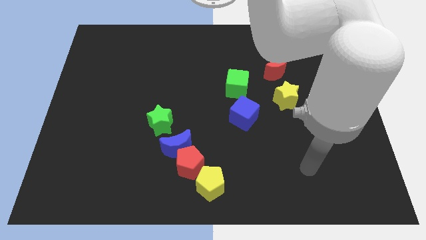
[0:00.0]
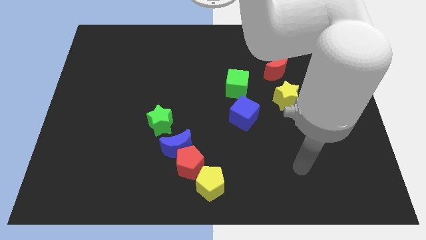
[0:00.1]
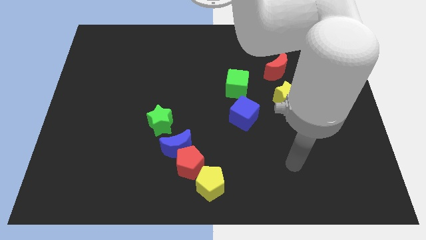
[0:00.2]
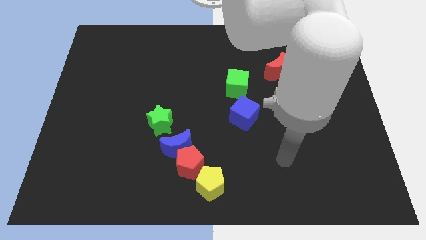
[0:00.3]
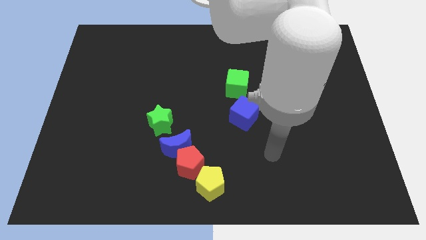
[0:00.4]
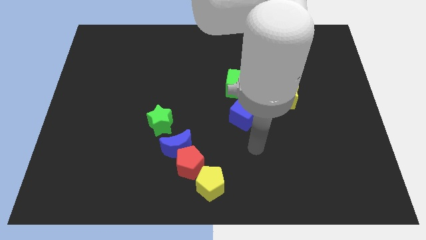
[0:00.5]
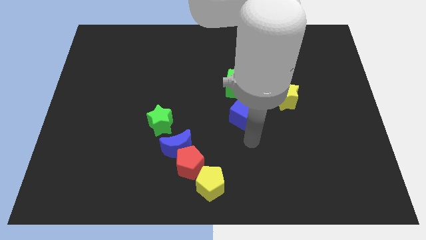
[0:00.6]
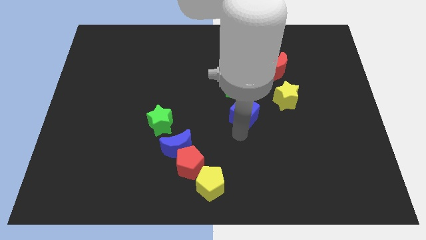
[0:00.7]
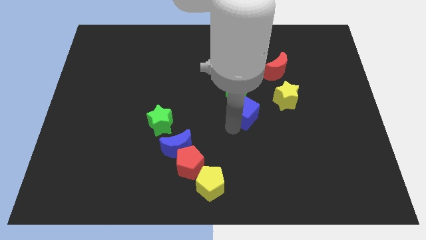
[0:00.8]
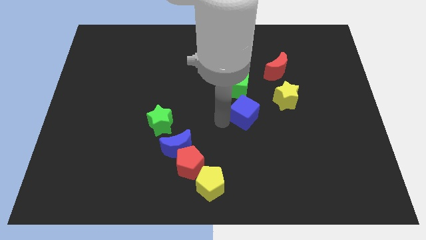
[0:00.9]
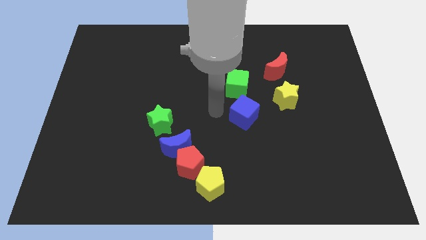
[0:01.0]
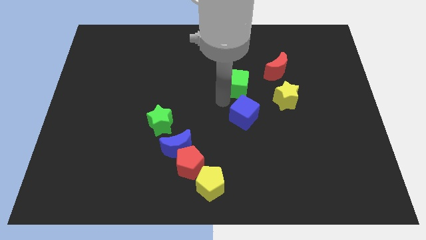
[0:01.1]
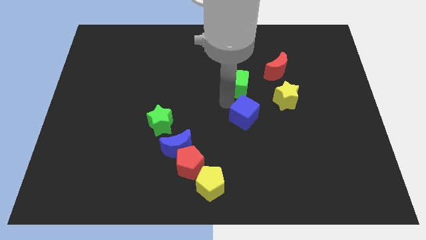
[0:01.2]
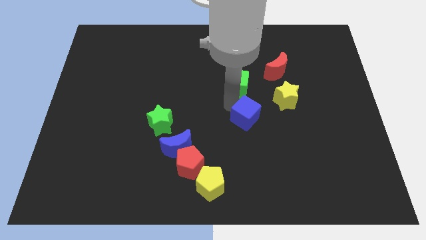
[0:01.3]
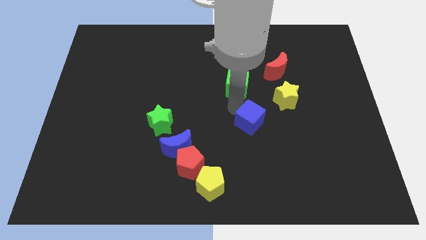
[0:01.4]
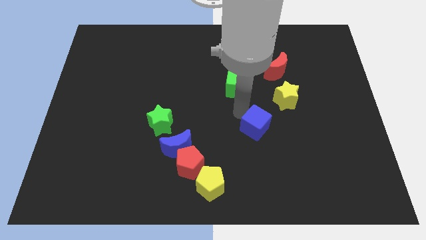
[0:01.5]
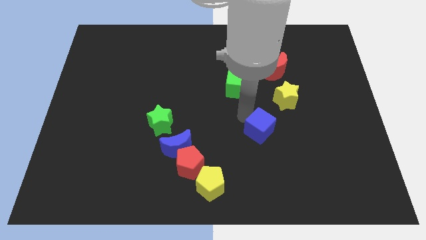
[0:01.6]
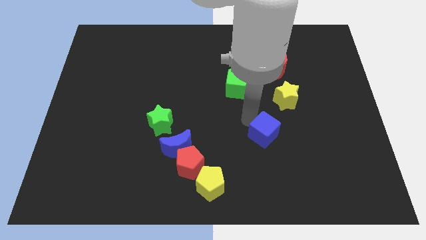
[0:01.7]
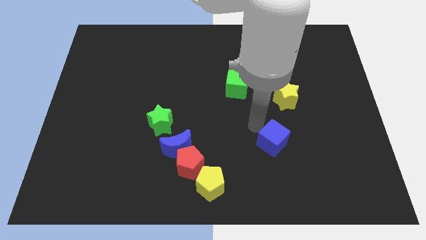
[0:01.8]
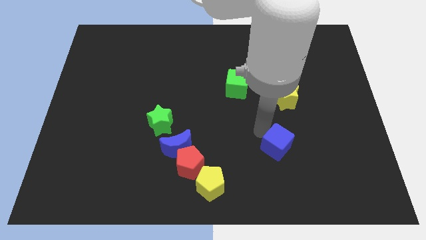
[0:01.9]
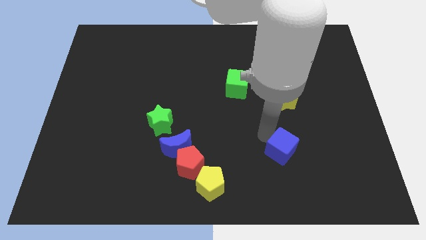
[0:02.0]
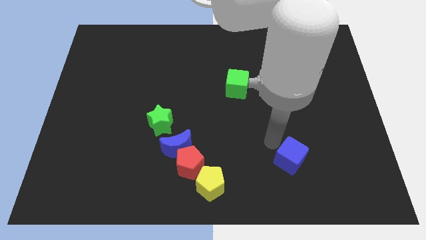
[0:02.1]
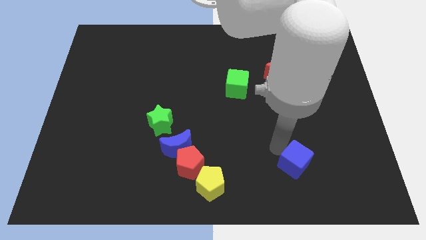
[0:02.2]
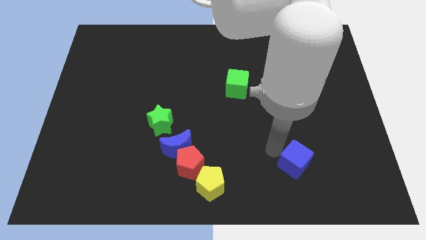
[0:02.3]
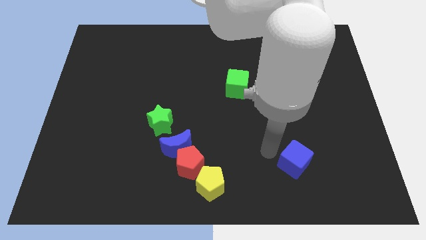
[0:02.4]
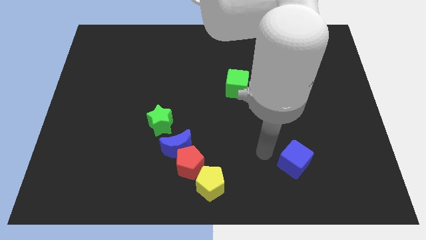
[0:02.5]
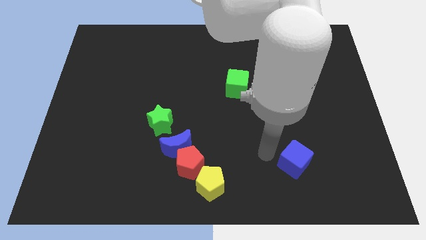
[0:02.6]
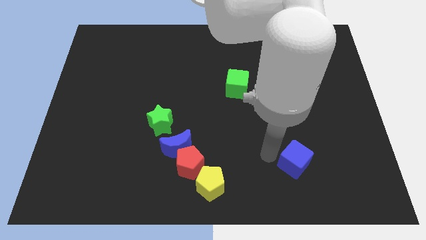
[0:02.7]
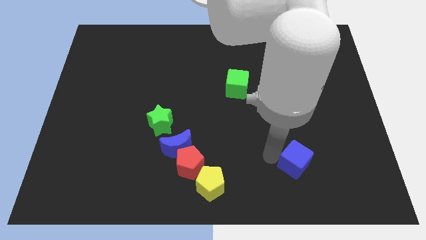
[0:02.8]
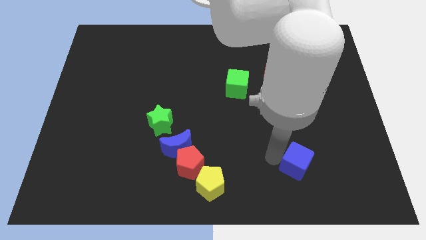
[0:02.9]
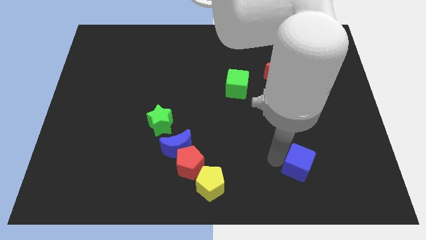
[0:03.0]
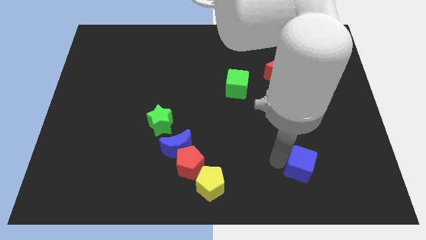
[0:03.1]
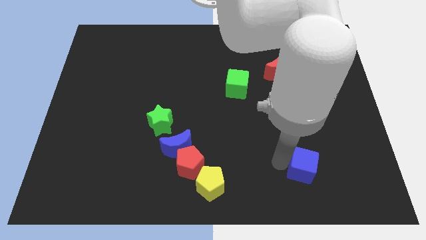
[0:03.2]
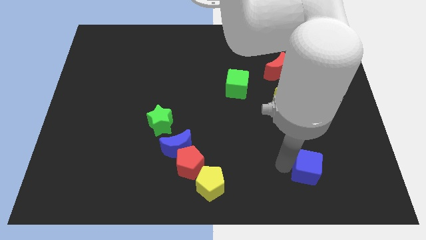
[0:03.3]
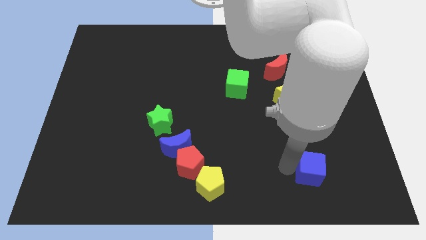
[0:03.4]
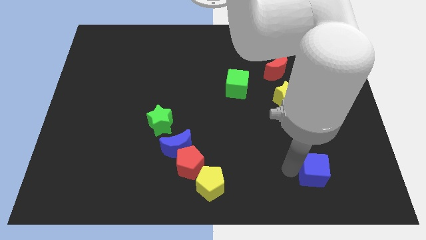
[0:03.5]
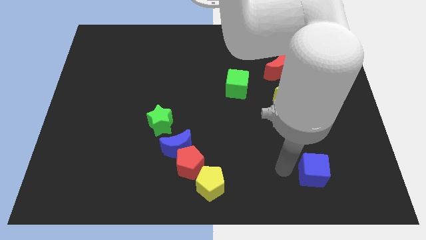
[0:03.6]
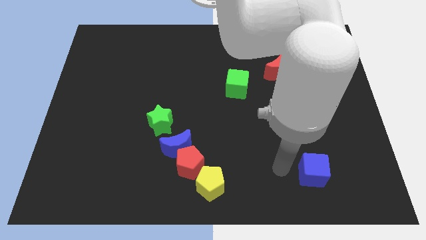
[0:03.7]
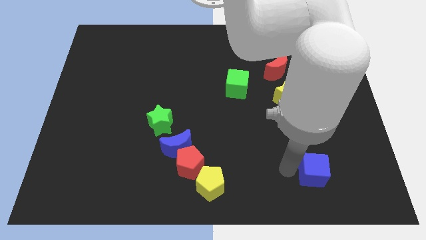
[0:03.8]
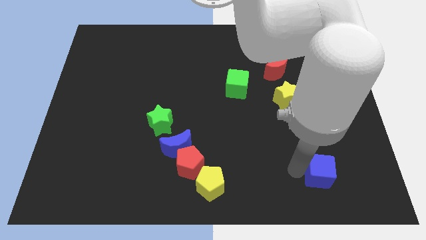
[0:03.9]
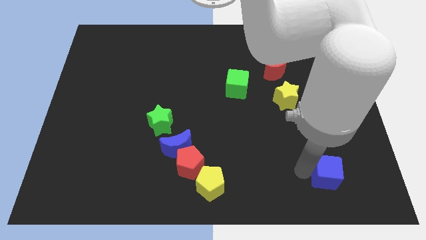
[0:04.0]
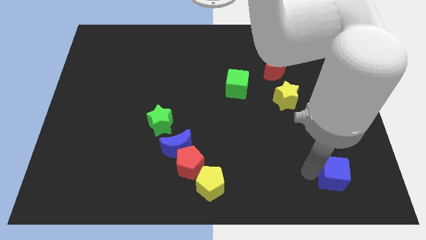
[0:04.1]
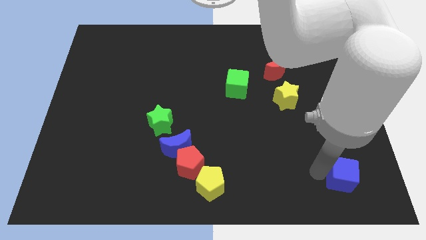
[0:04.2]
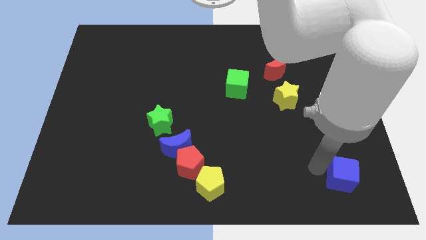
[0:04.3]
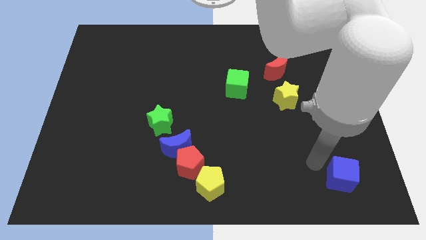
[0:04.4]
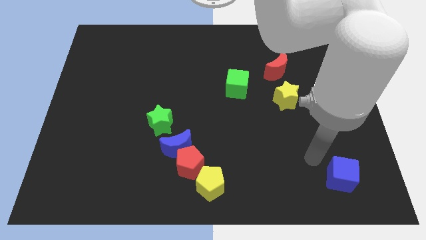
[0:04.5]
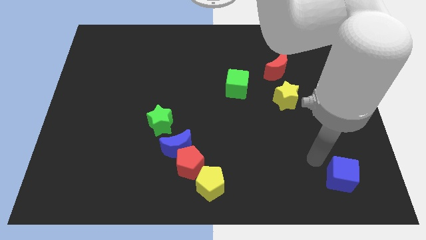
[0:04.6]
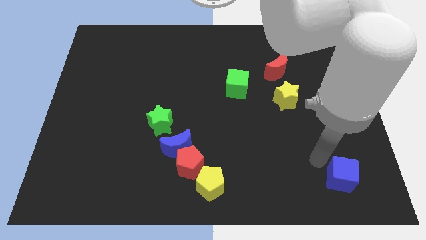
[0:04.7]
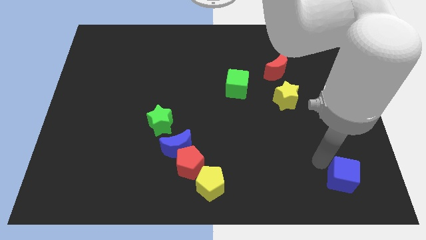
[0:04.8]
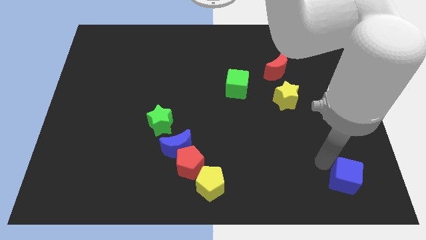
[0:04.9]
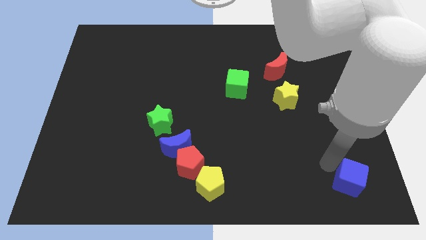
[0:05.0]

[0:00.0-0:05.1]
move the blue cube to the bottom right

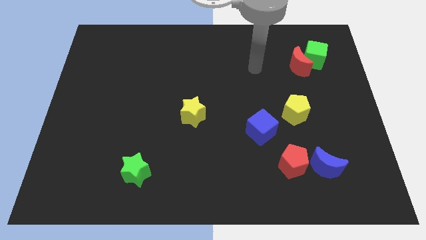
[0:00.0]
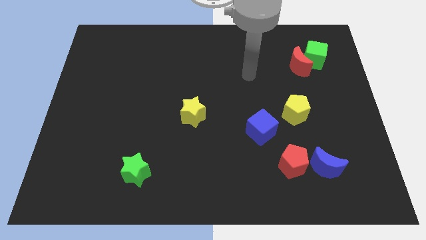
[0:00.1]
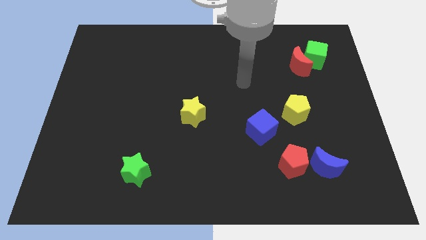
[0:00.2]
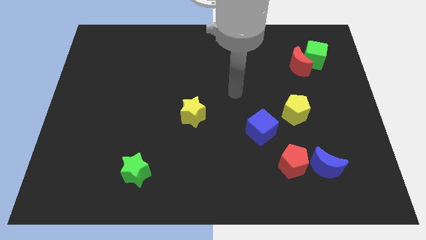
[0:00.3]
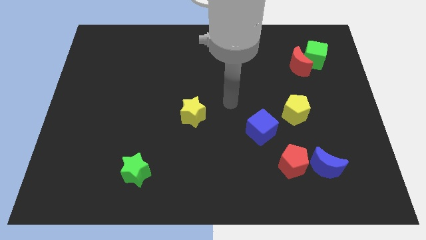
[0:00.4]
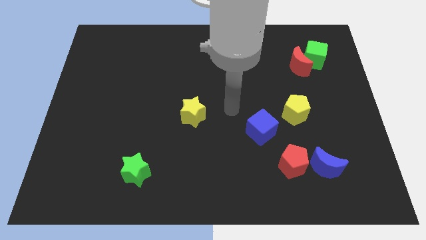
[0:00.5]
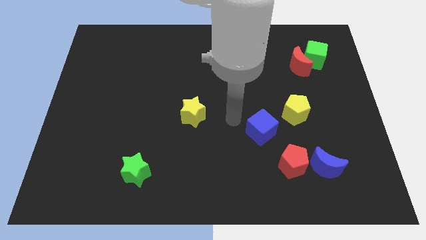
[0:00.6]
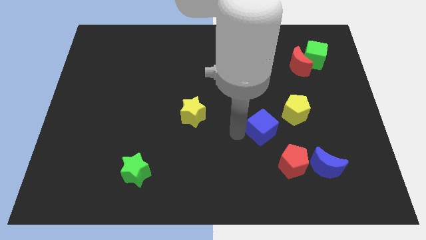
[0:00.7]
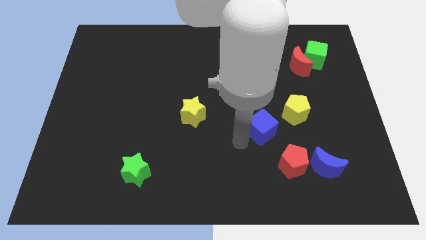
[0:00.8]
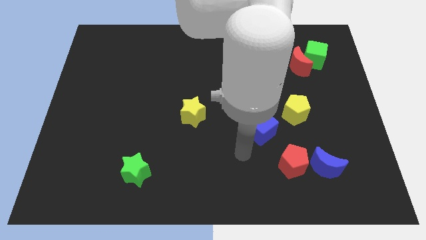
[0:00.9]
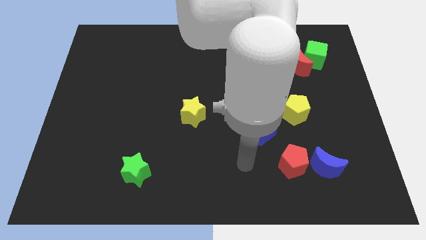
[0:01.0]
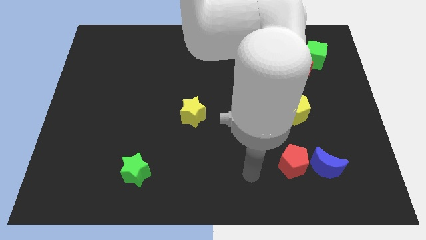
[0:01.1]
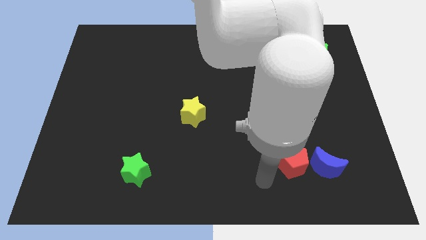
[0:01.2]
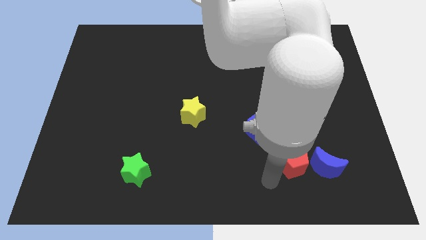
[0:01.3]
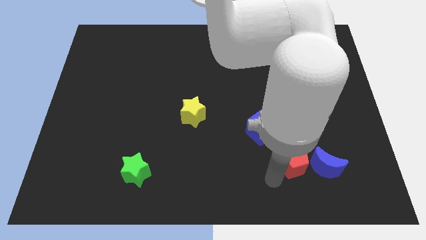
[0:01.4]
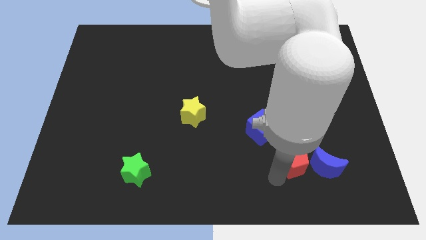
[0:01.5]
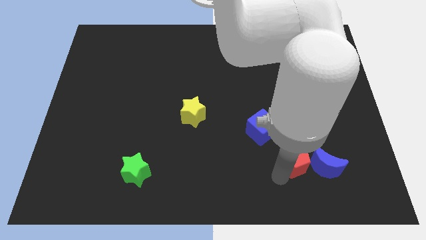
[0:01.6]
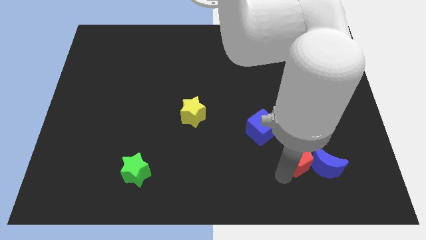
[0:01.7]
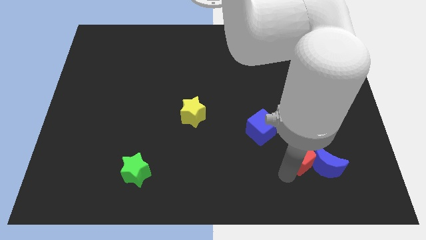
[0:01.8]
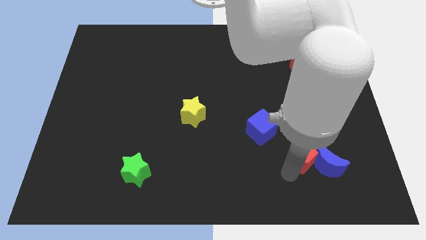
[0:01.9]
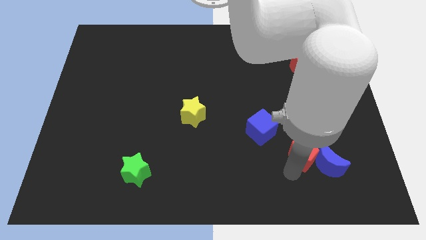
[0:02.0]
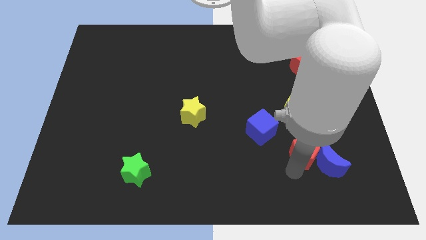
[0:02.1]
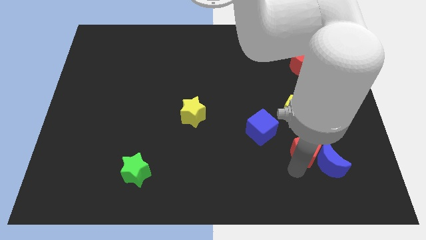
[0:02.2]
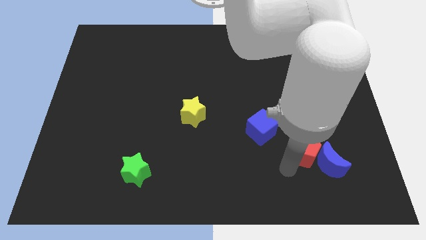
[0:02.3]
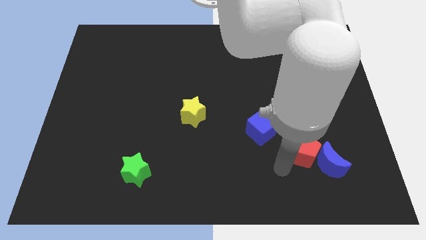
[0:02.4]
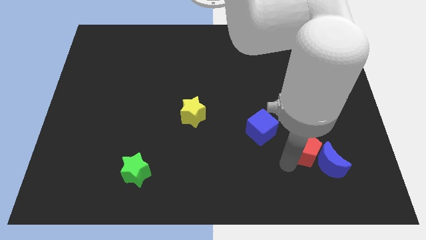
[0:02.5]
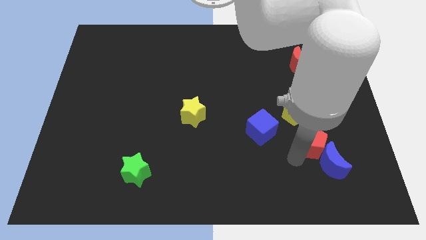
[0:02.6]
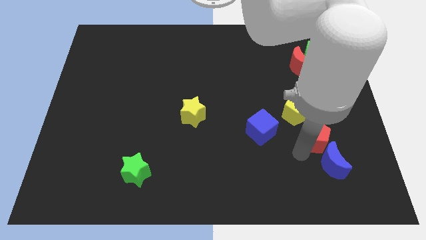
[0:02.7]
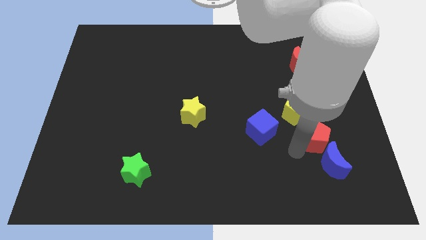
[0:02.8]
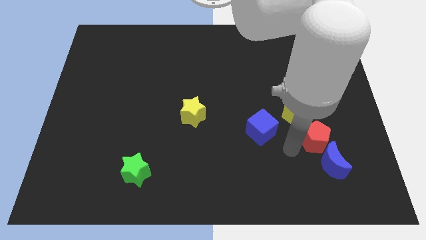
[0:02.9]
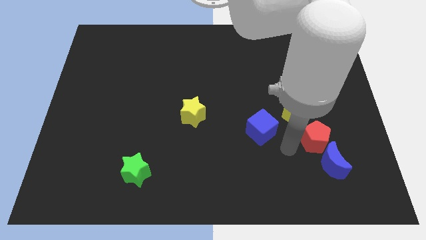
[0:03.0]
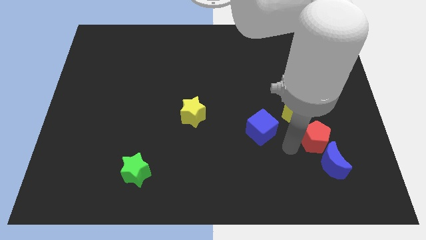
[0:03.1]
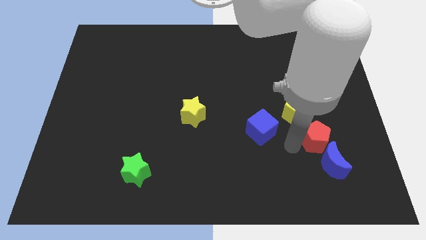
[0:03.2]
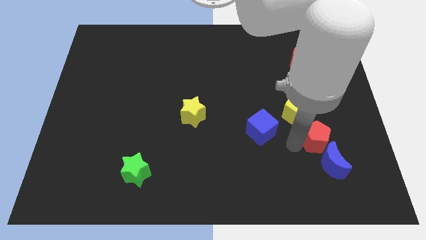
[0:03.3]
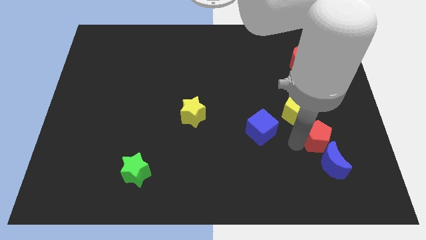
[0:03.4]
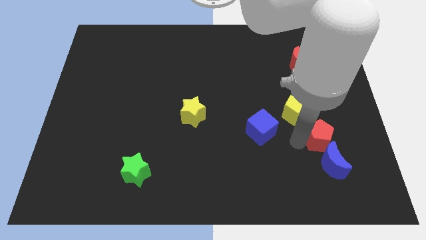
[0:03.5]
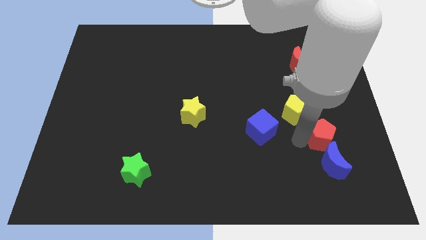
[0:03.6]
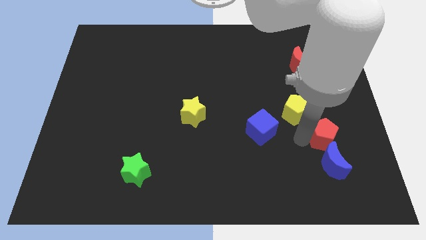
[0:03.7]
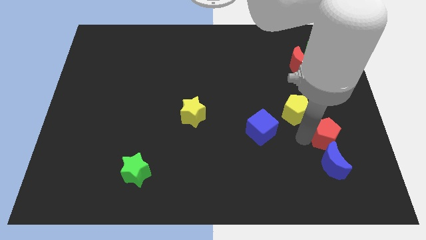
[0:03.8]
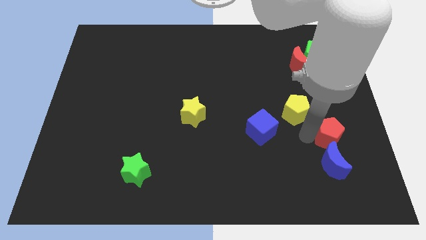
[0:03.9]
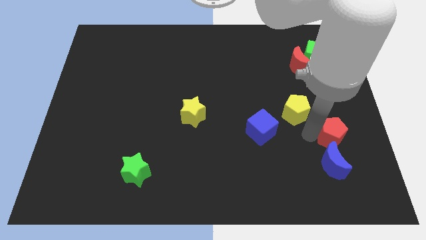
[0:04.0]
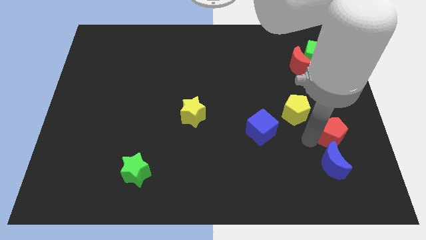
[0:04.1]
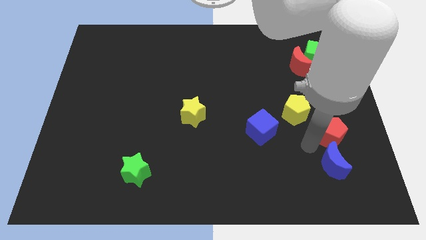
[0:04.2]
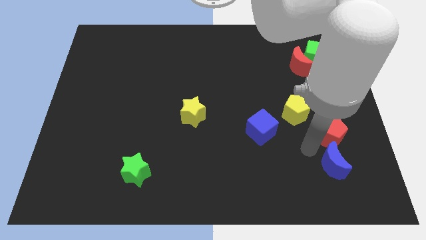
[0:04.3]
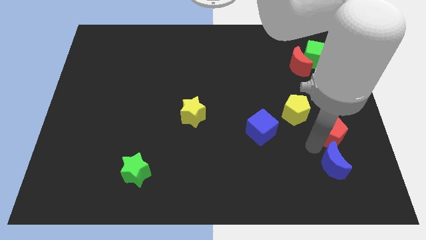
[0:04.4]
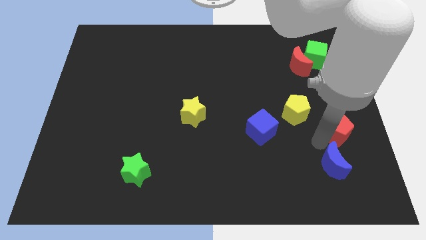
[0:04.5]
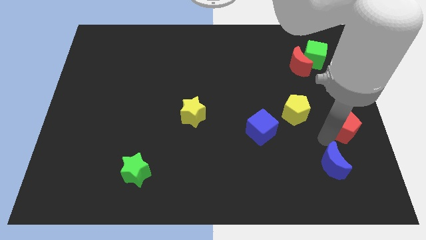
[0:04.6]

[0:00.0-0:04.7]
push the red pentagon to the center right
